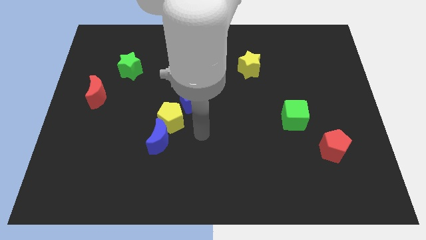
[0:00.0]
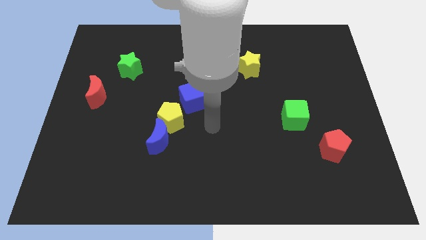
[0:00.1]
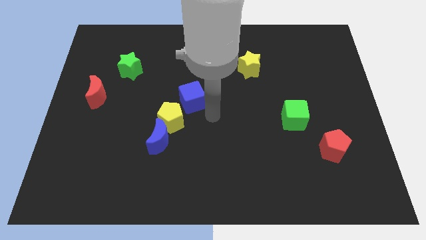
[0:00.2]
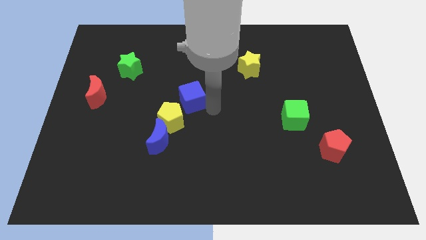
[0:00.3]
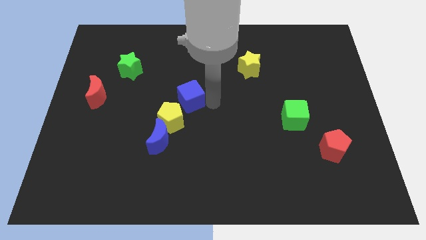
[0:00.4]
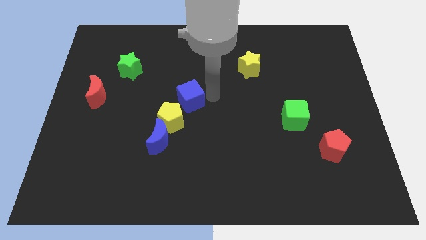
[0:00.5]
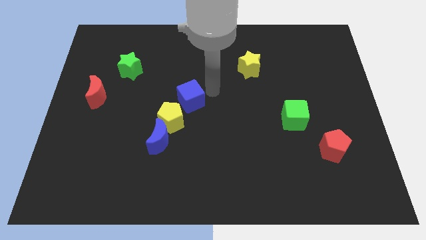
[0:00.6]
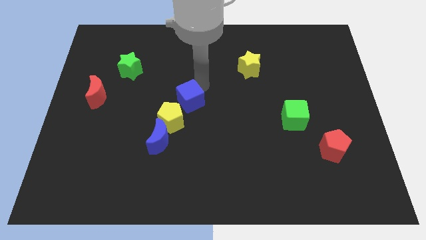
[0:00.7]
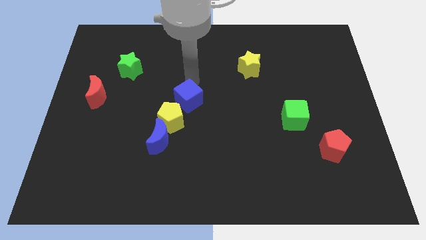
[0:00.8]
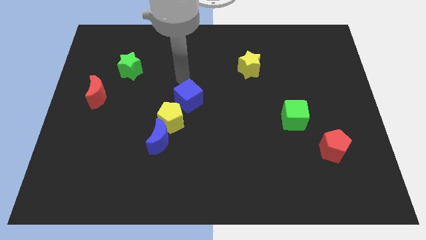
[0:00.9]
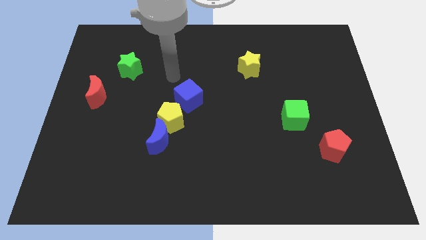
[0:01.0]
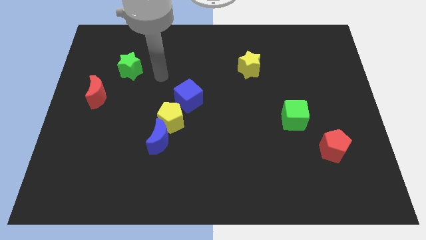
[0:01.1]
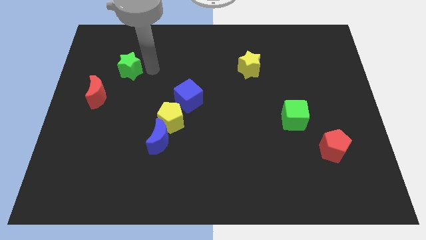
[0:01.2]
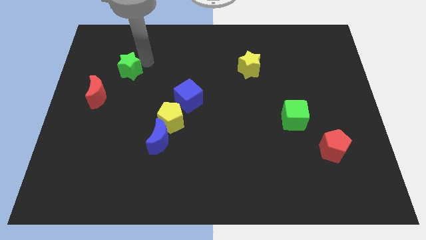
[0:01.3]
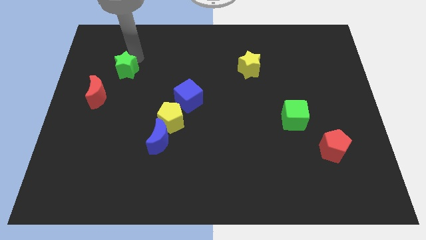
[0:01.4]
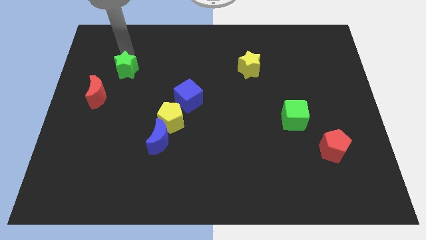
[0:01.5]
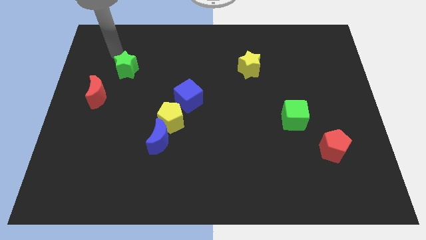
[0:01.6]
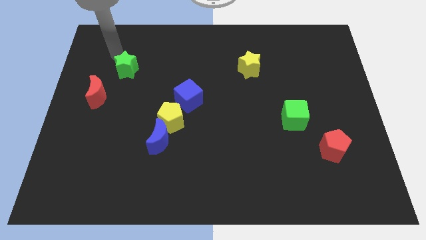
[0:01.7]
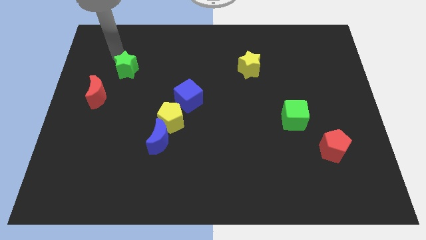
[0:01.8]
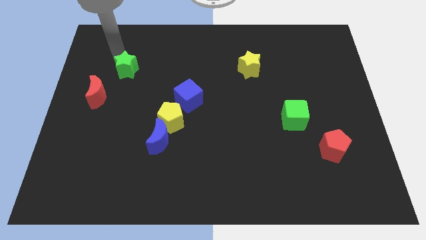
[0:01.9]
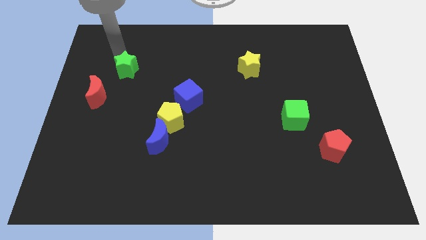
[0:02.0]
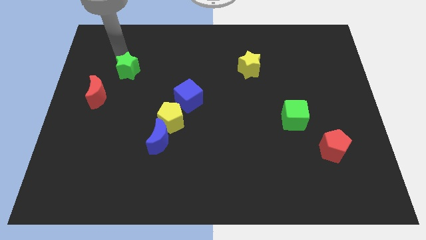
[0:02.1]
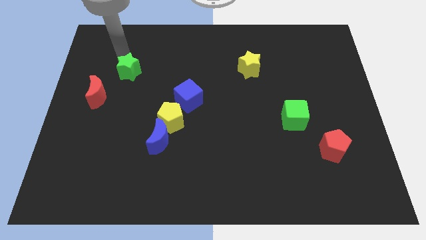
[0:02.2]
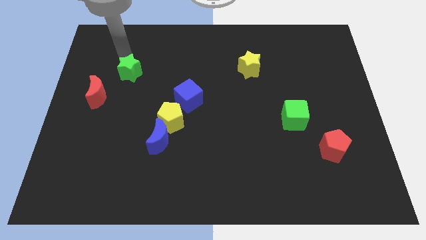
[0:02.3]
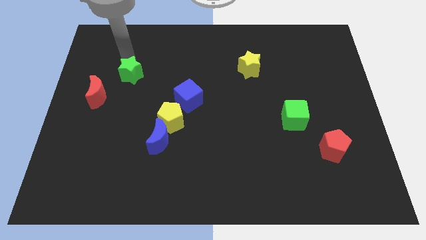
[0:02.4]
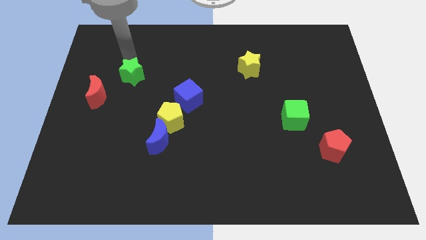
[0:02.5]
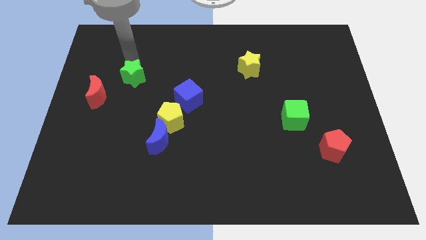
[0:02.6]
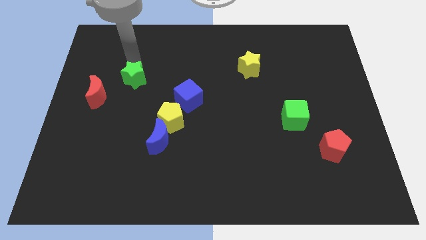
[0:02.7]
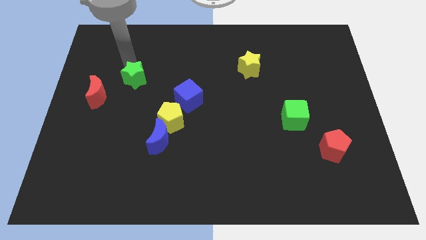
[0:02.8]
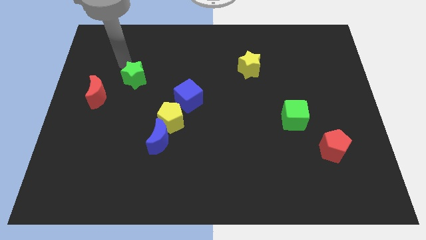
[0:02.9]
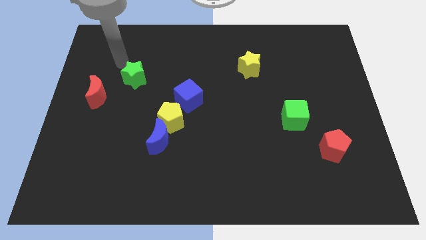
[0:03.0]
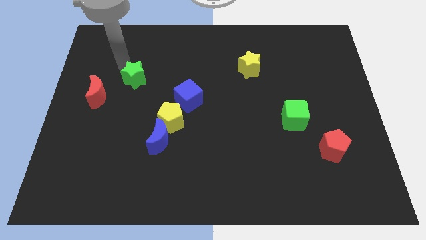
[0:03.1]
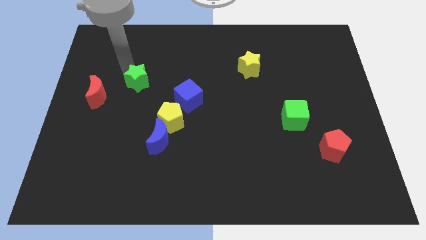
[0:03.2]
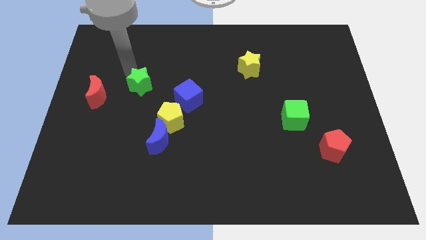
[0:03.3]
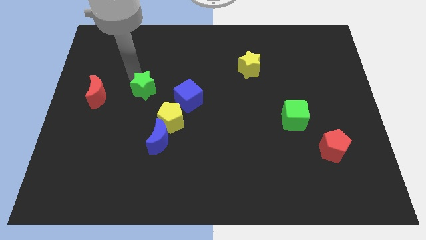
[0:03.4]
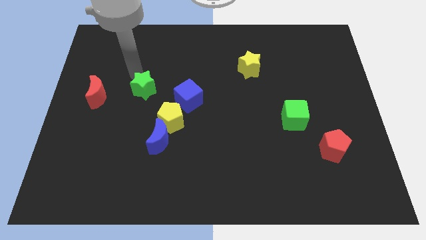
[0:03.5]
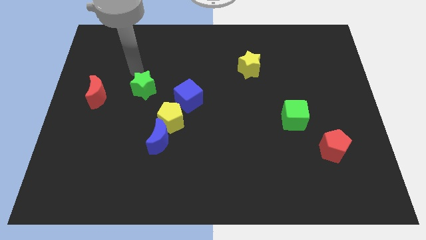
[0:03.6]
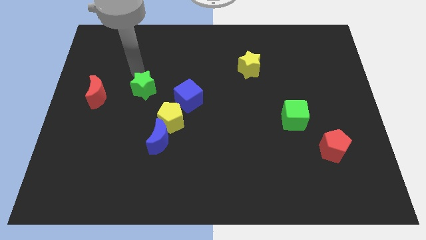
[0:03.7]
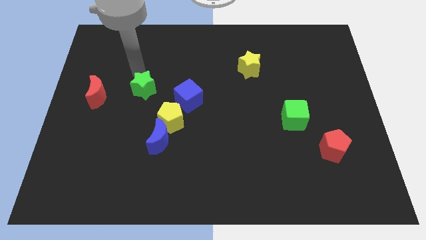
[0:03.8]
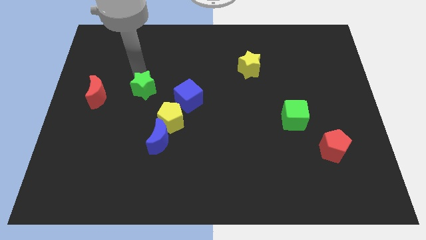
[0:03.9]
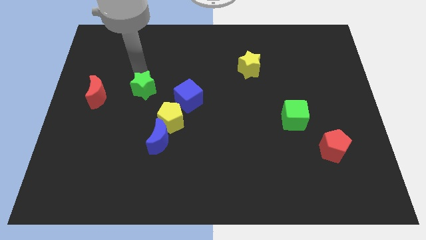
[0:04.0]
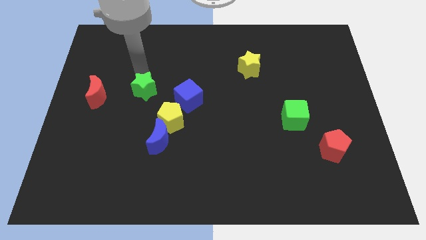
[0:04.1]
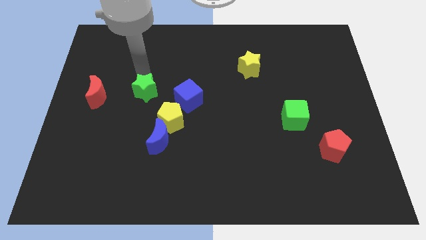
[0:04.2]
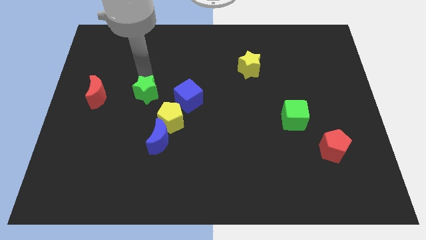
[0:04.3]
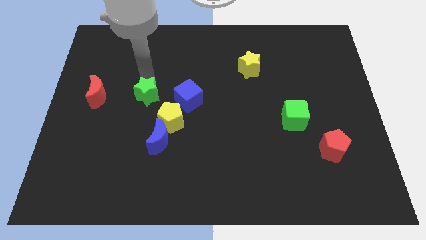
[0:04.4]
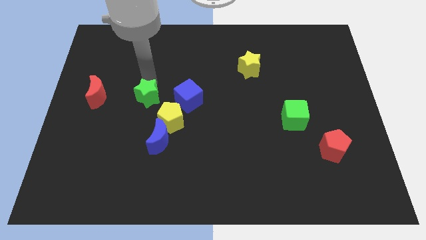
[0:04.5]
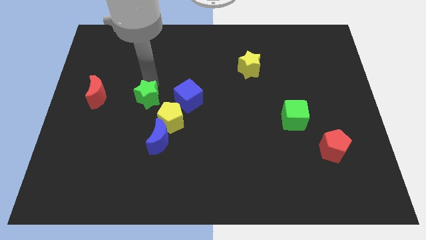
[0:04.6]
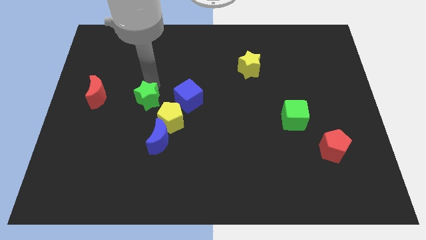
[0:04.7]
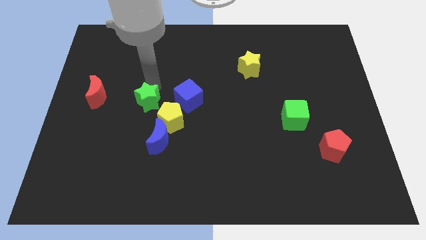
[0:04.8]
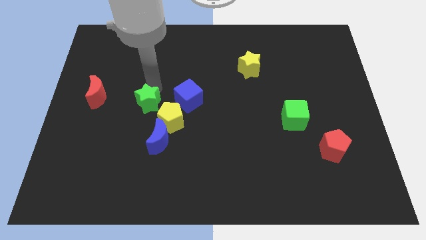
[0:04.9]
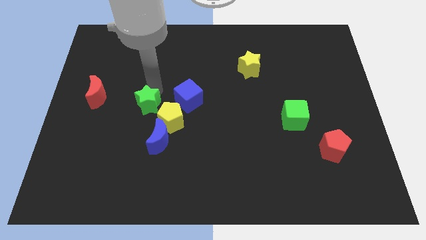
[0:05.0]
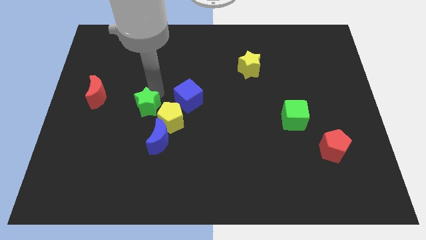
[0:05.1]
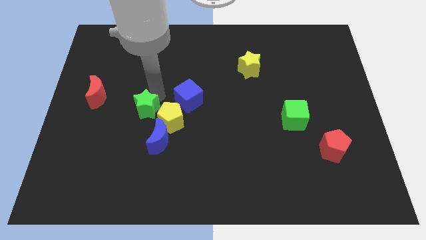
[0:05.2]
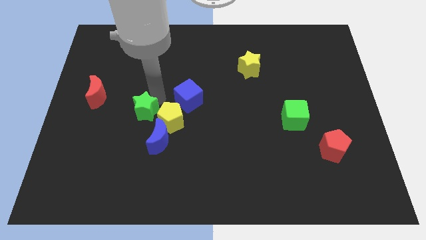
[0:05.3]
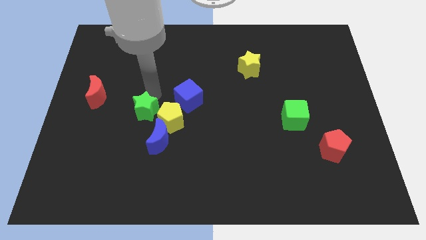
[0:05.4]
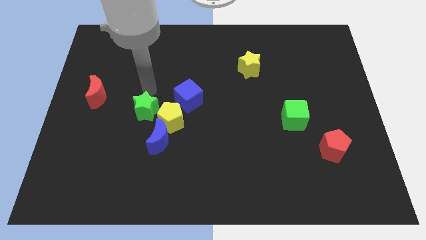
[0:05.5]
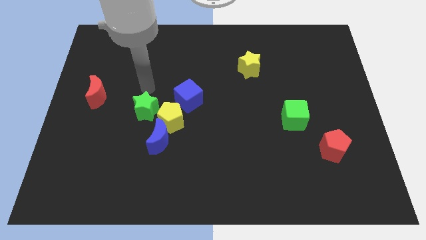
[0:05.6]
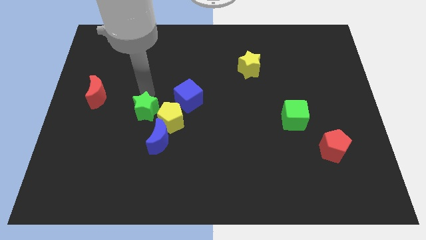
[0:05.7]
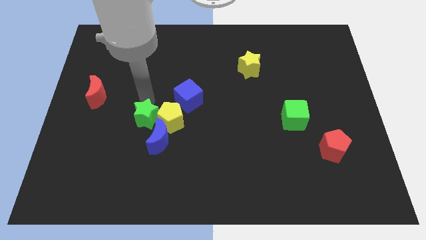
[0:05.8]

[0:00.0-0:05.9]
push the green star to the bottom left of the yellow pentagon

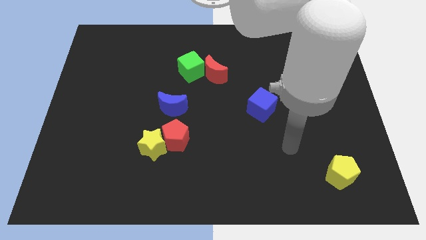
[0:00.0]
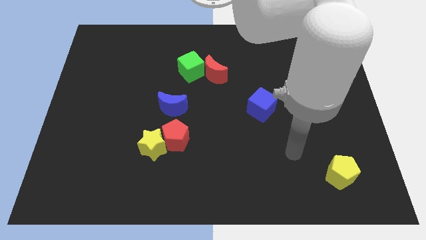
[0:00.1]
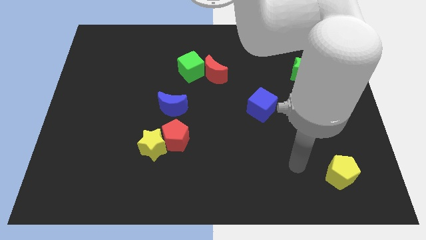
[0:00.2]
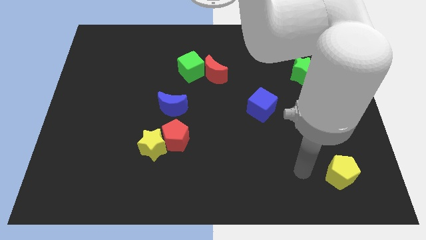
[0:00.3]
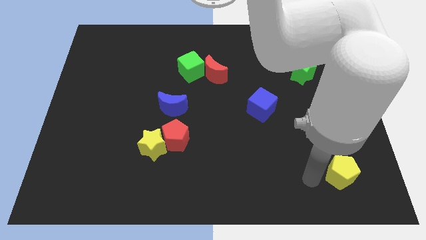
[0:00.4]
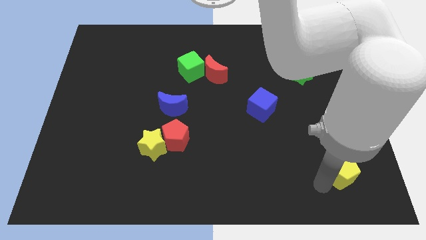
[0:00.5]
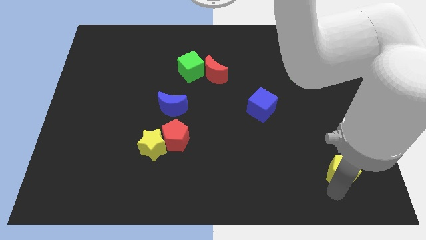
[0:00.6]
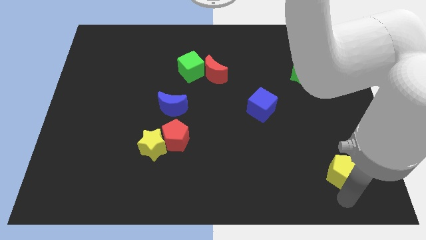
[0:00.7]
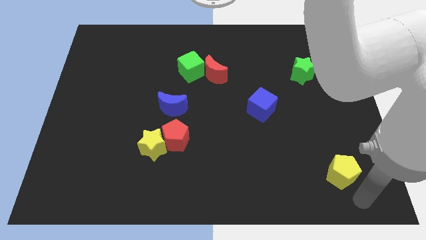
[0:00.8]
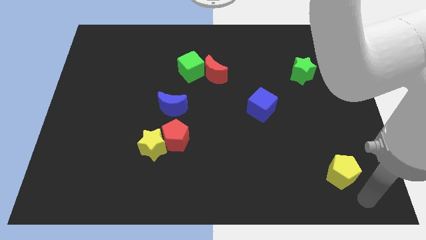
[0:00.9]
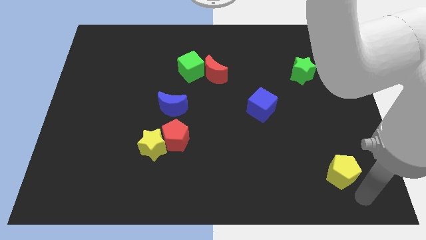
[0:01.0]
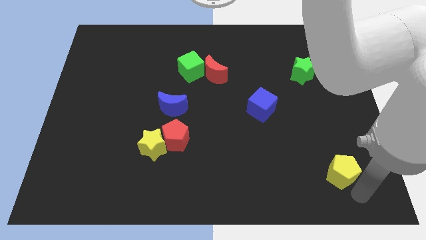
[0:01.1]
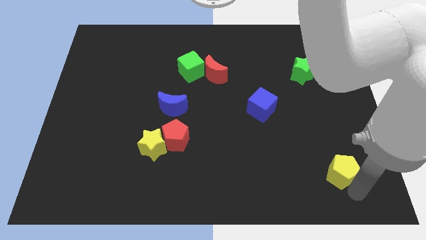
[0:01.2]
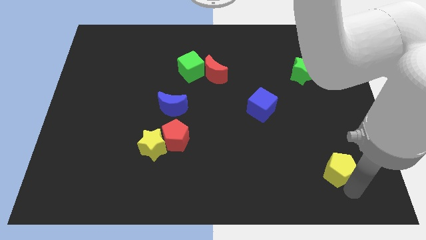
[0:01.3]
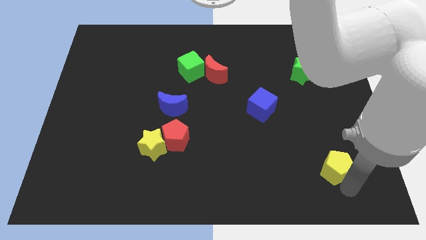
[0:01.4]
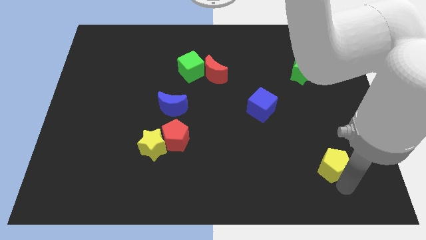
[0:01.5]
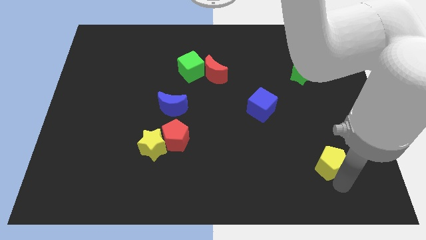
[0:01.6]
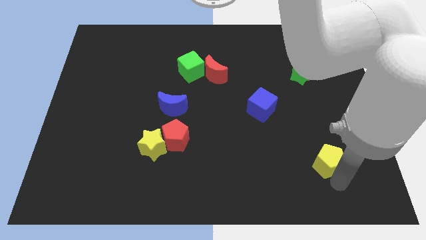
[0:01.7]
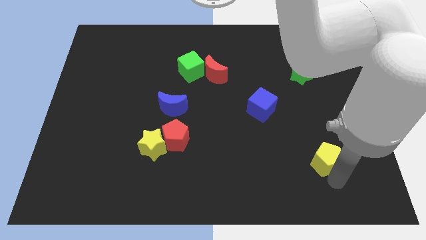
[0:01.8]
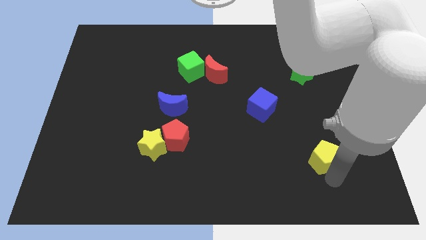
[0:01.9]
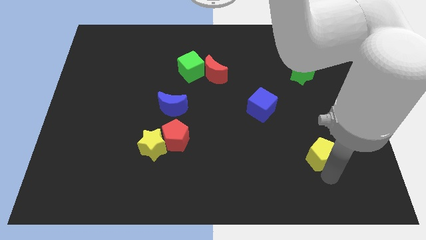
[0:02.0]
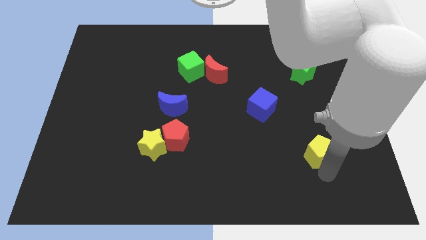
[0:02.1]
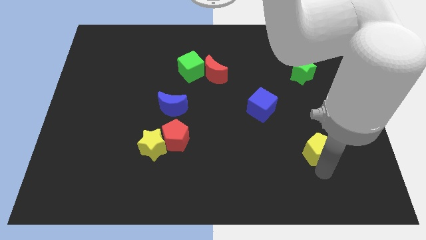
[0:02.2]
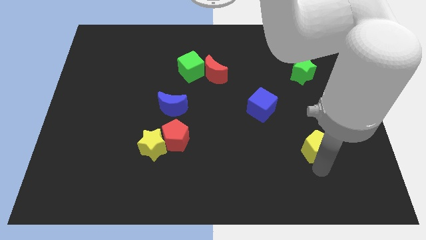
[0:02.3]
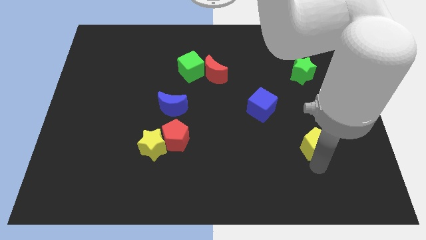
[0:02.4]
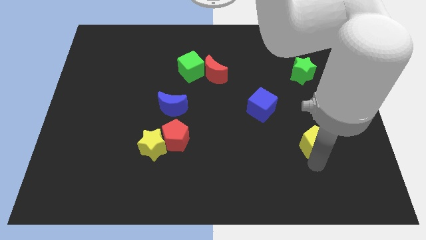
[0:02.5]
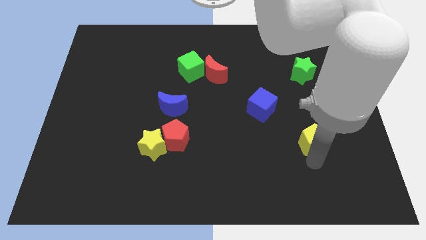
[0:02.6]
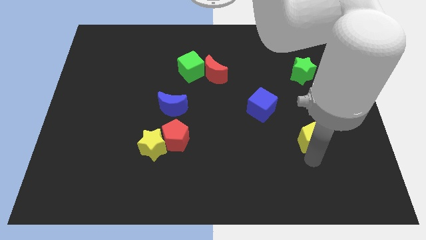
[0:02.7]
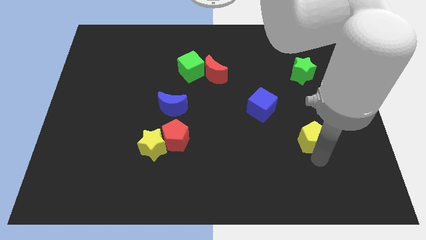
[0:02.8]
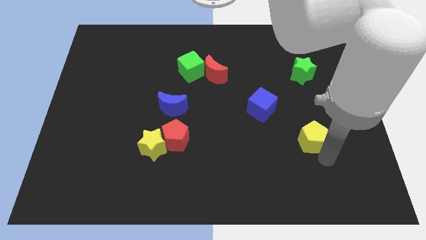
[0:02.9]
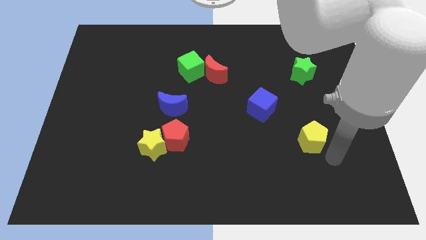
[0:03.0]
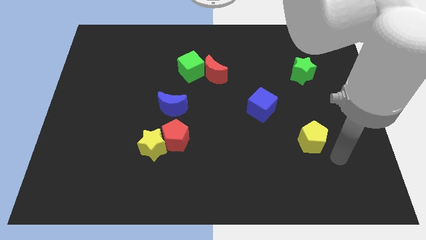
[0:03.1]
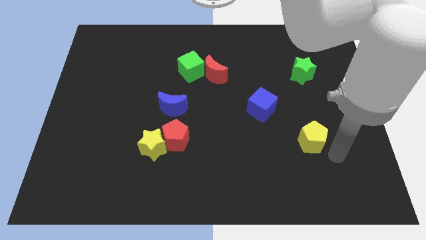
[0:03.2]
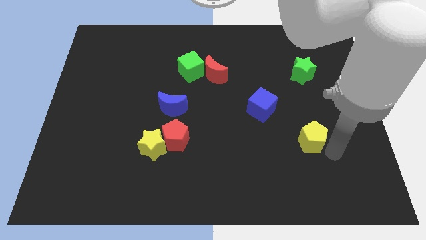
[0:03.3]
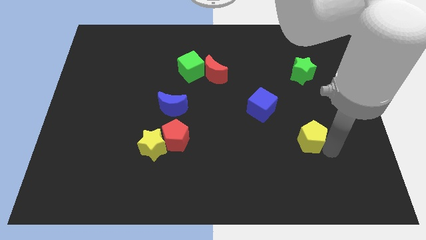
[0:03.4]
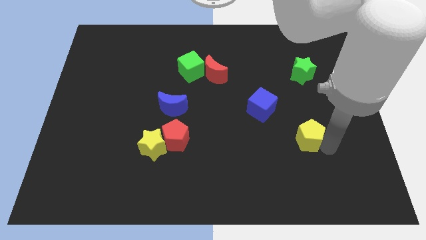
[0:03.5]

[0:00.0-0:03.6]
push the yellow pentagon to the bottom right of the blue cube
